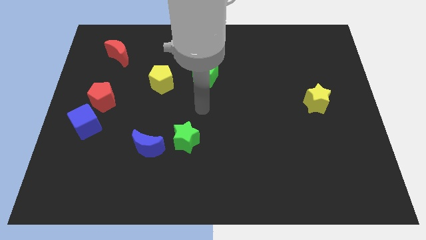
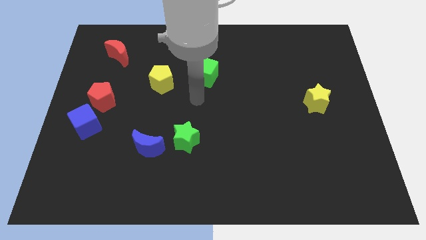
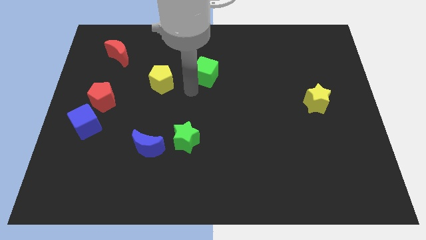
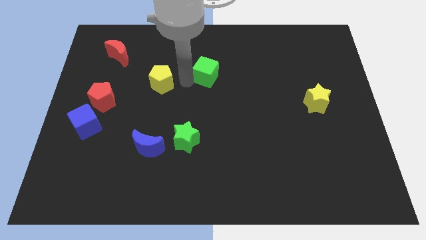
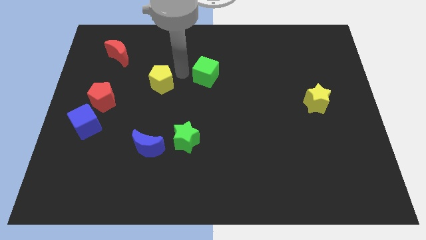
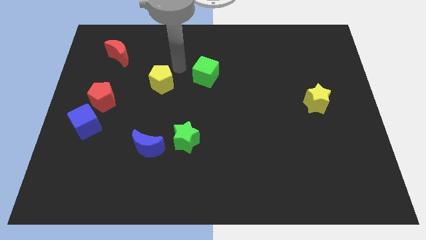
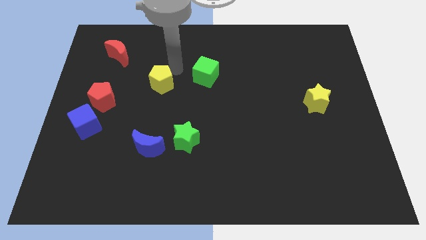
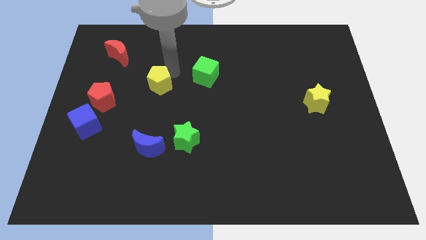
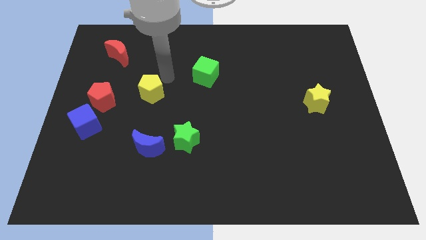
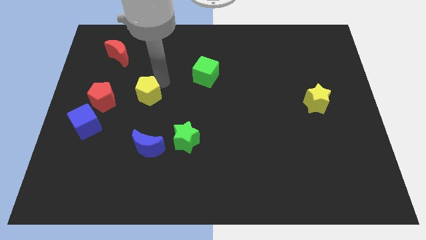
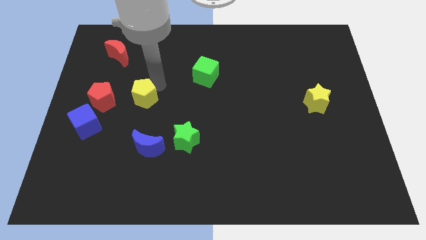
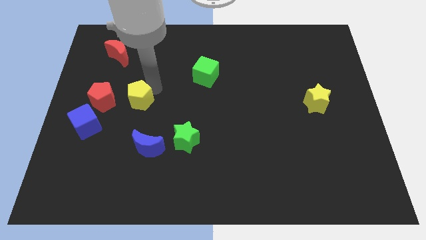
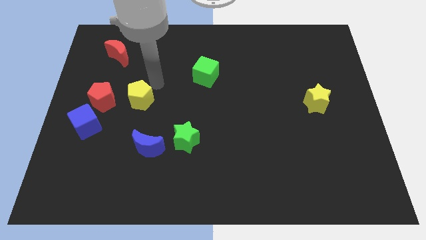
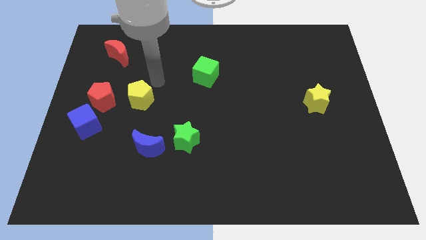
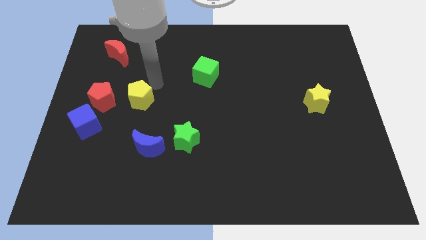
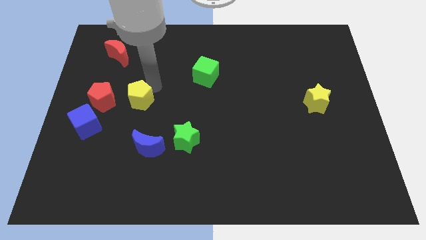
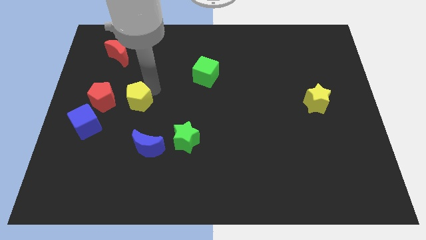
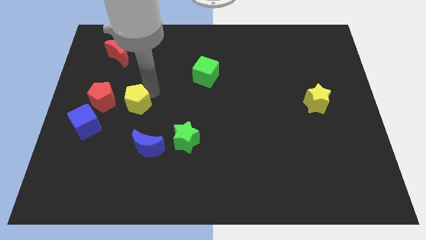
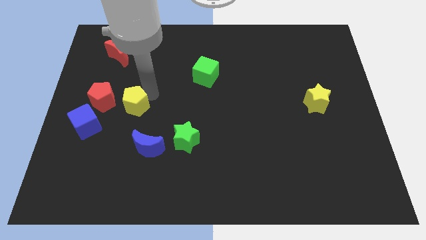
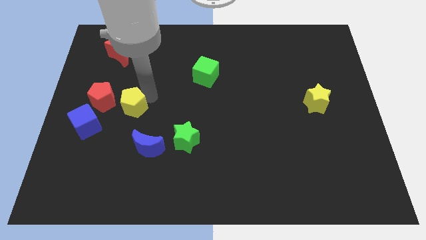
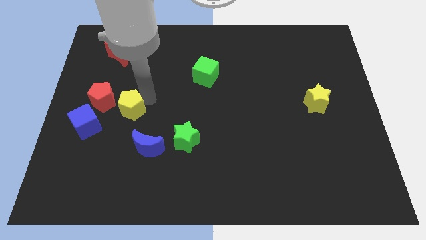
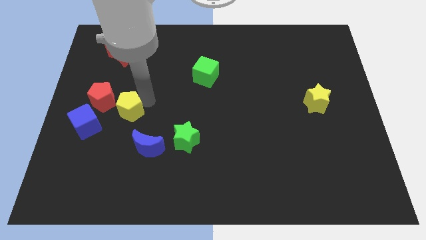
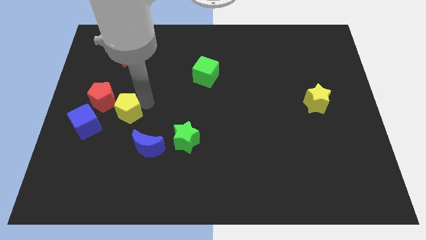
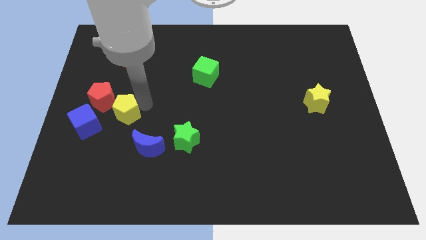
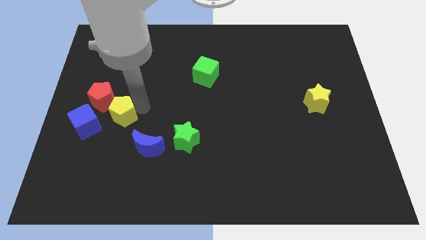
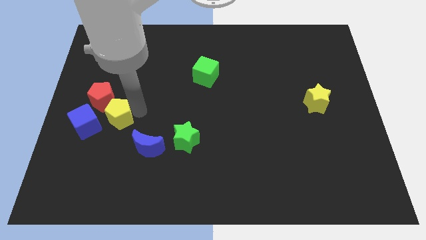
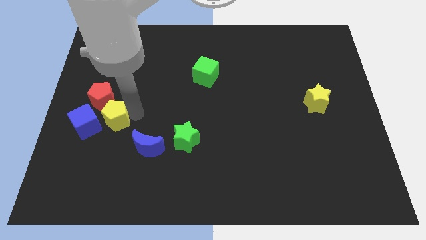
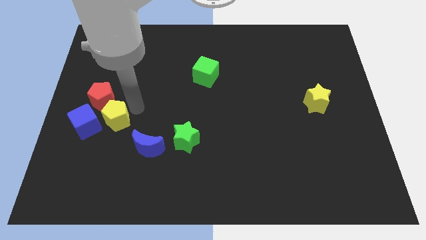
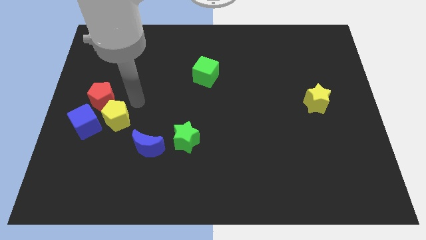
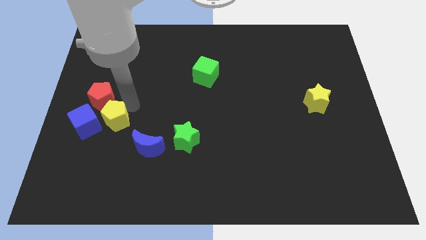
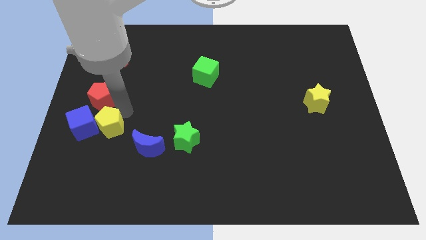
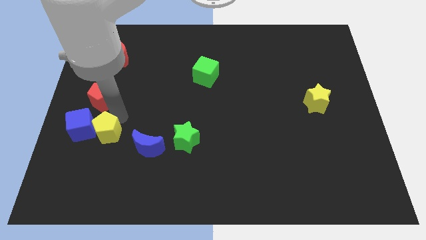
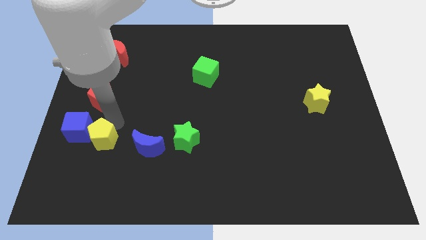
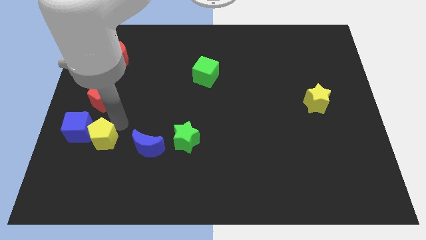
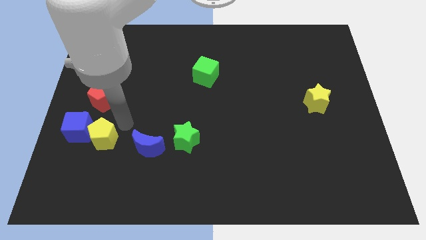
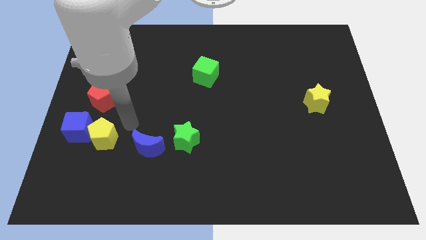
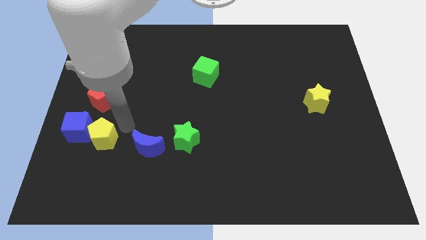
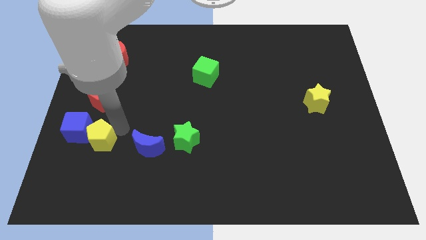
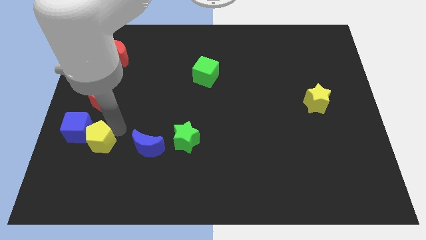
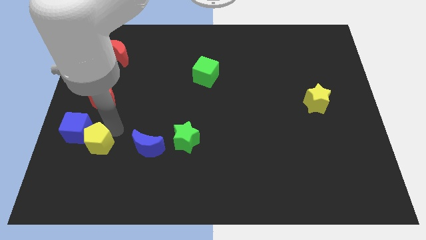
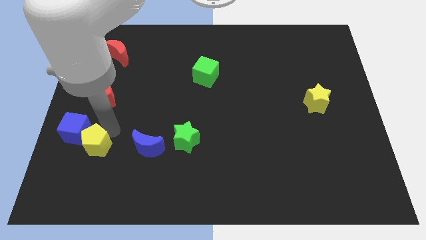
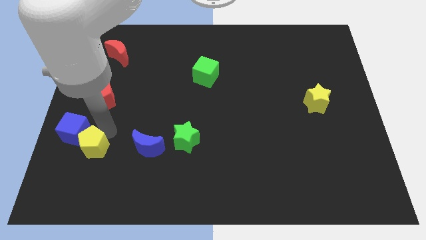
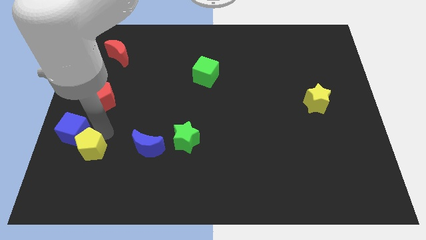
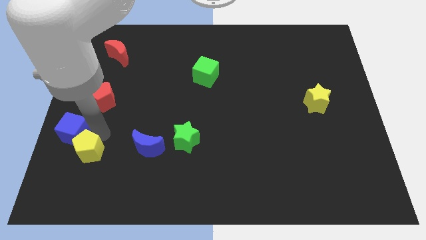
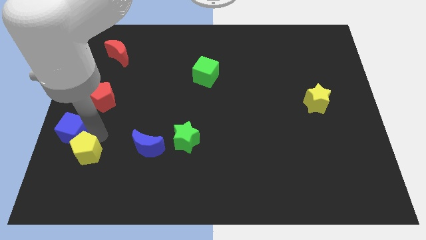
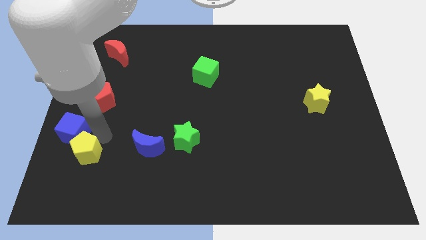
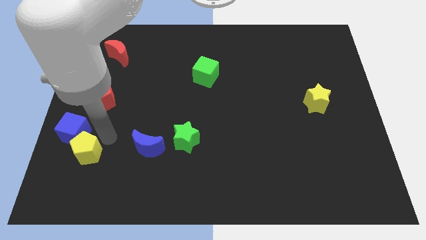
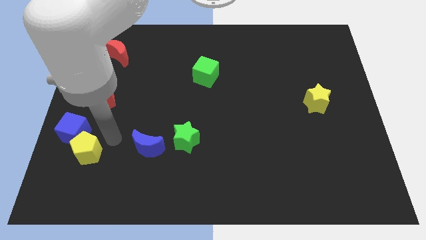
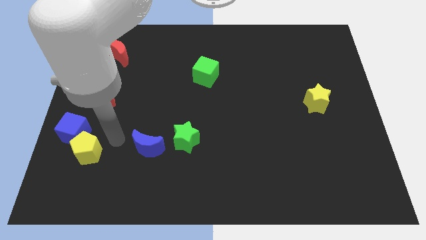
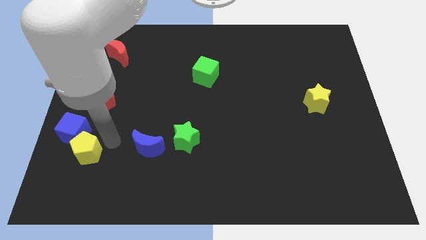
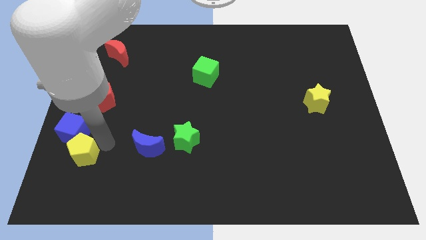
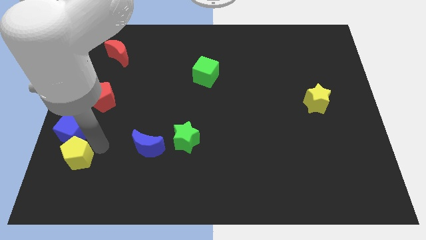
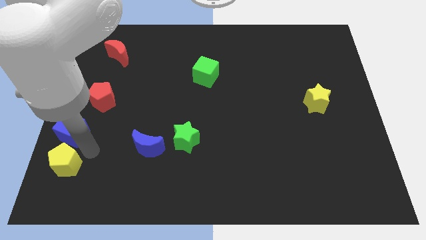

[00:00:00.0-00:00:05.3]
move the yellow pentagon to the bottom left
